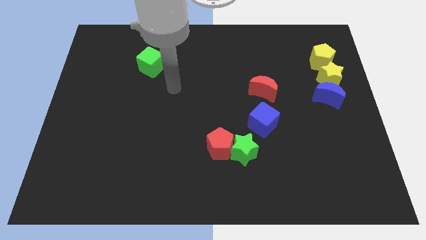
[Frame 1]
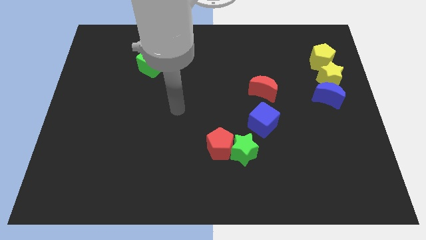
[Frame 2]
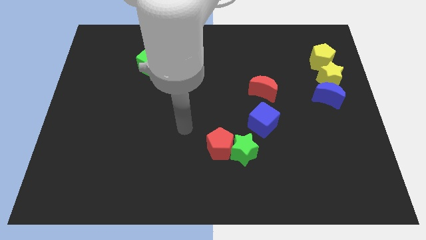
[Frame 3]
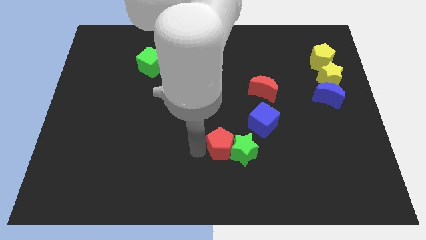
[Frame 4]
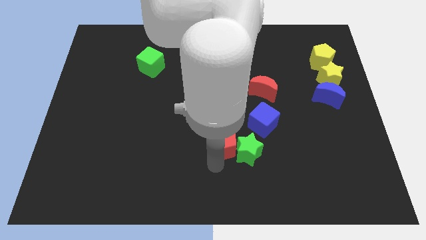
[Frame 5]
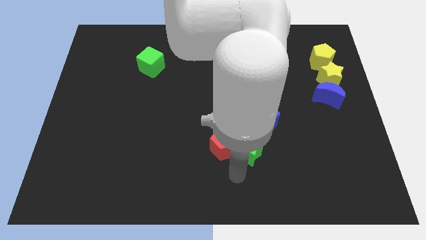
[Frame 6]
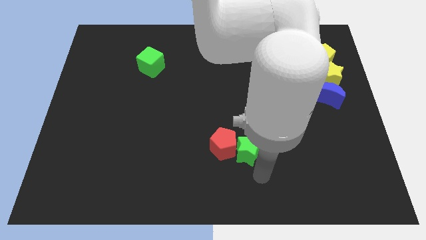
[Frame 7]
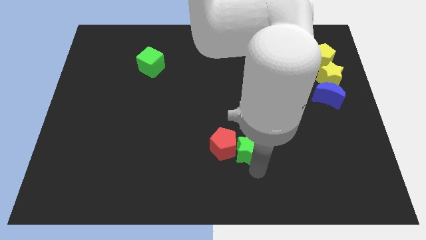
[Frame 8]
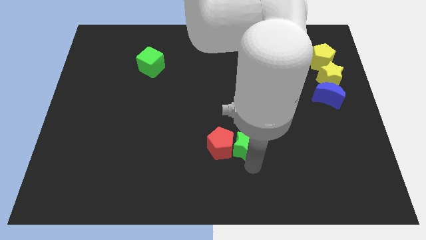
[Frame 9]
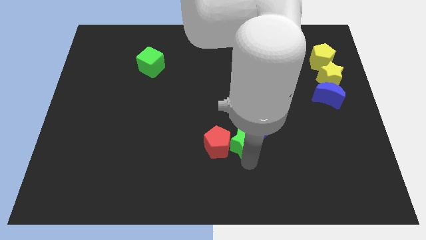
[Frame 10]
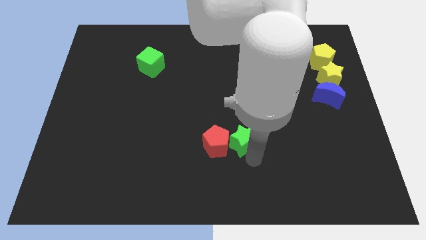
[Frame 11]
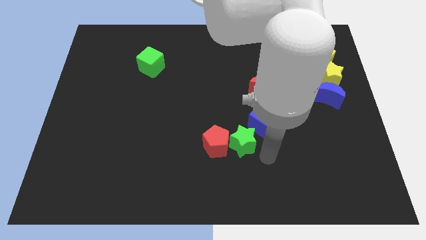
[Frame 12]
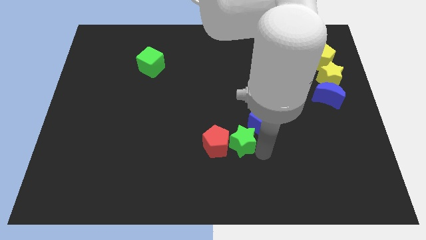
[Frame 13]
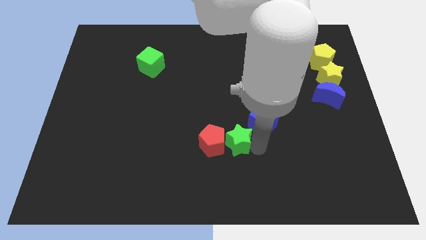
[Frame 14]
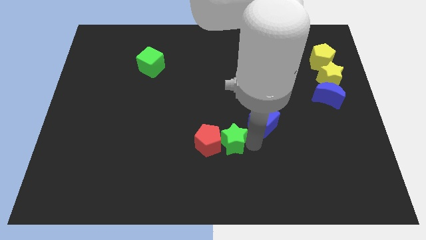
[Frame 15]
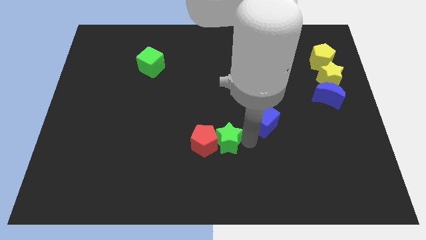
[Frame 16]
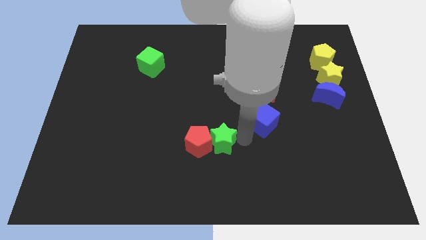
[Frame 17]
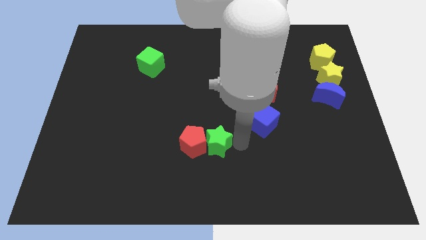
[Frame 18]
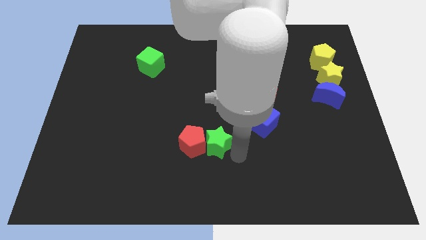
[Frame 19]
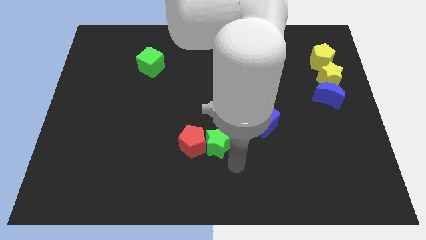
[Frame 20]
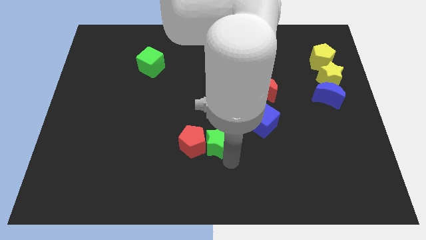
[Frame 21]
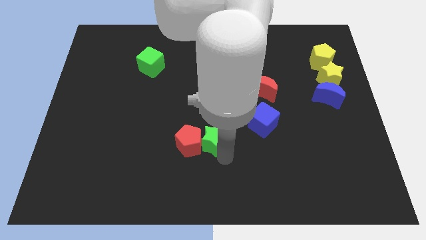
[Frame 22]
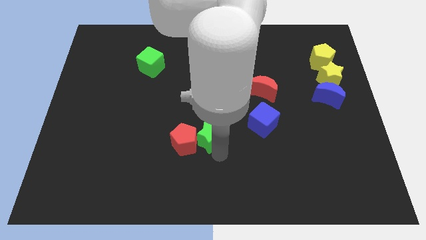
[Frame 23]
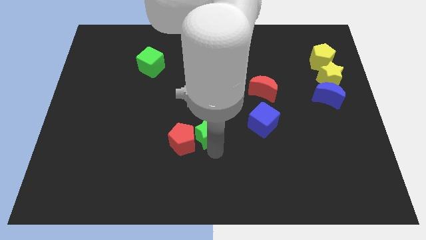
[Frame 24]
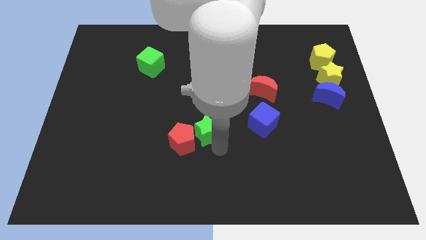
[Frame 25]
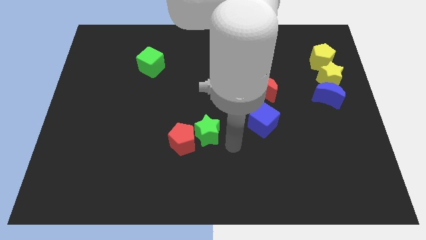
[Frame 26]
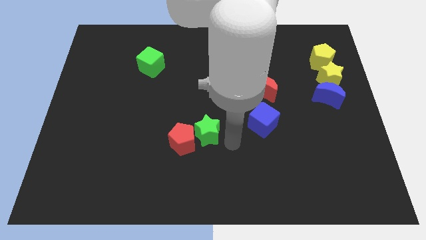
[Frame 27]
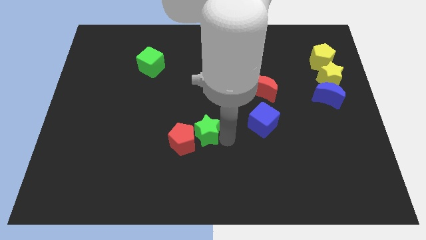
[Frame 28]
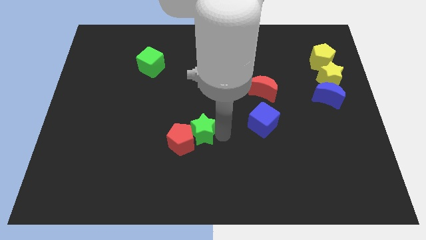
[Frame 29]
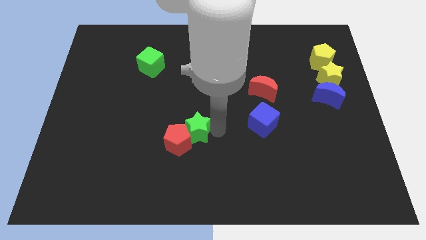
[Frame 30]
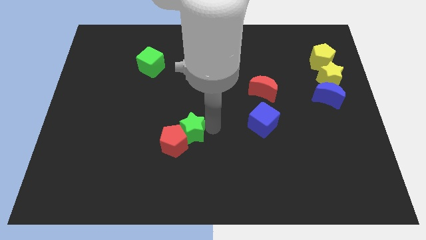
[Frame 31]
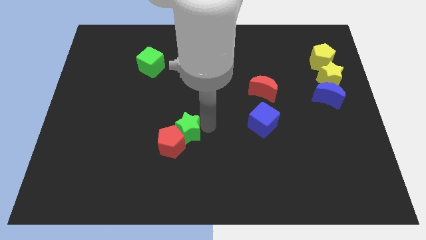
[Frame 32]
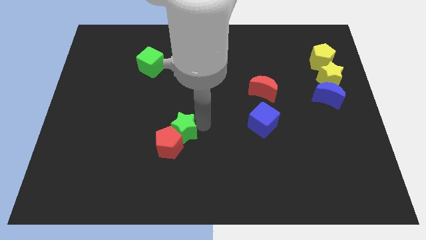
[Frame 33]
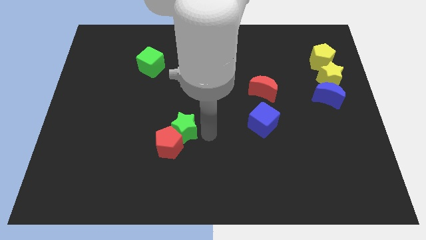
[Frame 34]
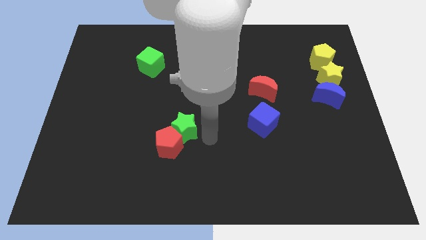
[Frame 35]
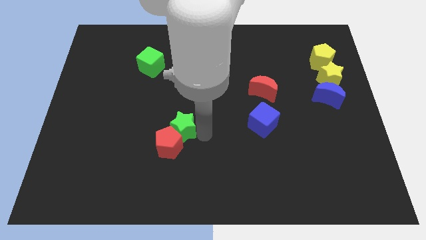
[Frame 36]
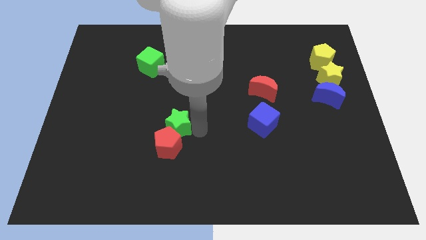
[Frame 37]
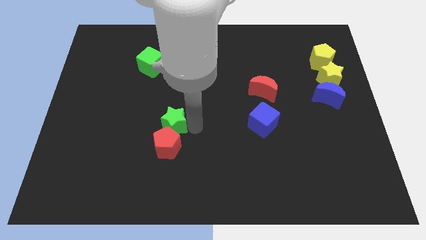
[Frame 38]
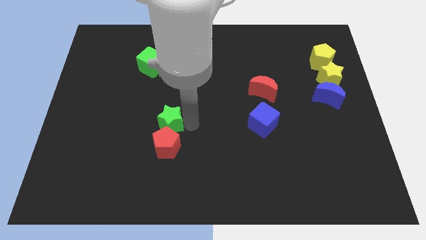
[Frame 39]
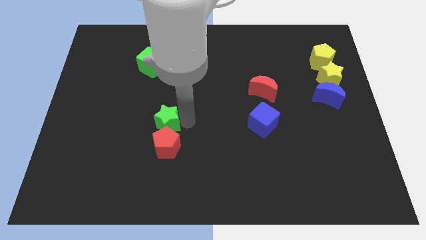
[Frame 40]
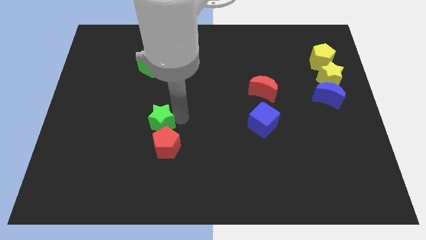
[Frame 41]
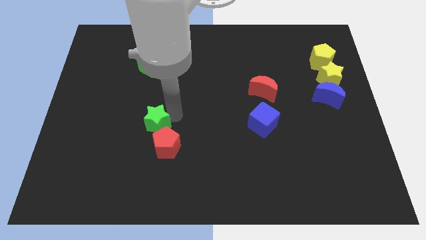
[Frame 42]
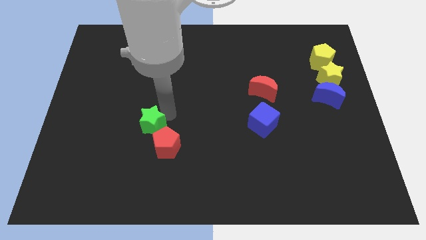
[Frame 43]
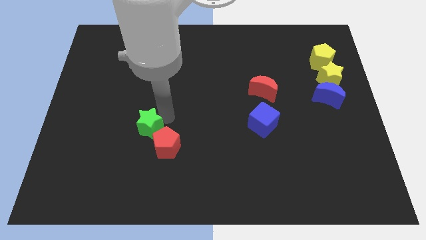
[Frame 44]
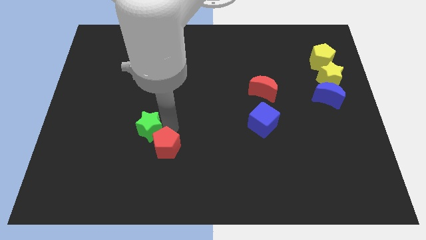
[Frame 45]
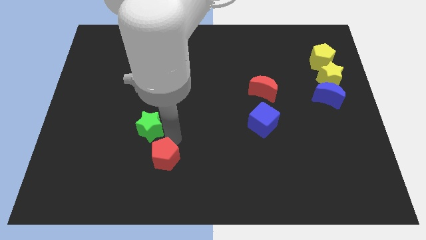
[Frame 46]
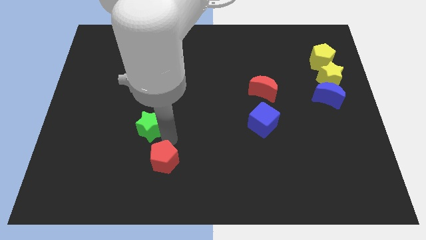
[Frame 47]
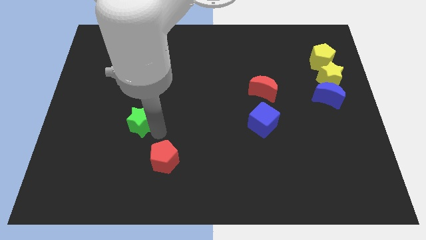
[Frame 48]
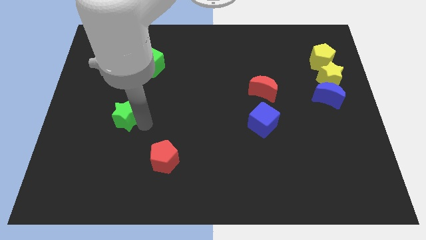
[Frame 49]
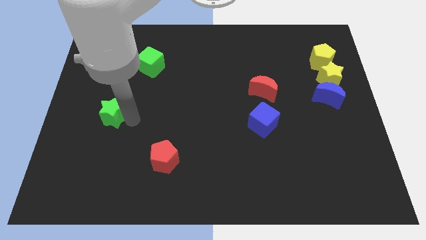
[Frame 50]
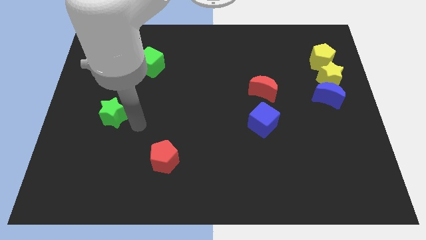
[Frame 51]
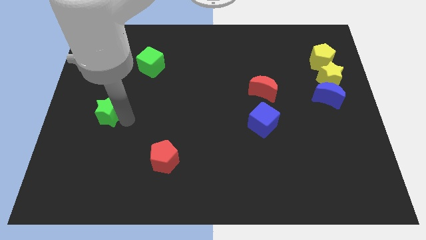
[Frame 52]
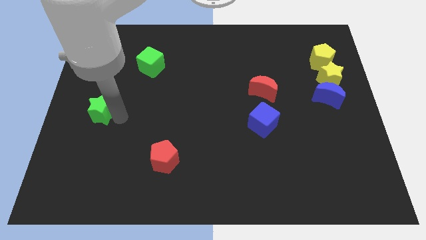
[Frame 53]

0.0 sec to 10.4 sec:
slide the green star to the left side of the board

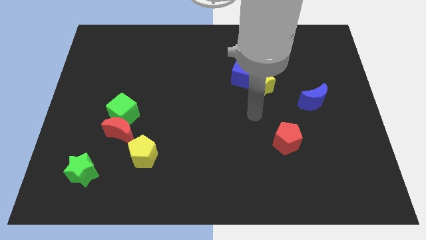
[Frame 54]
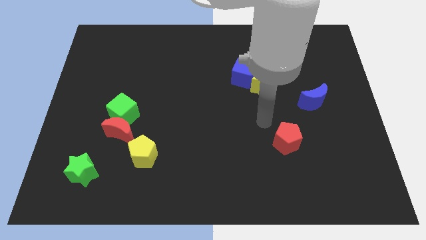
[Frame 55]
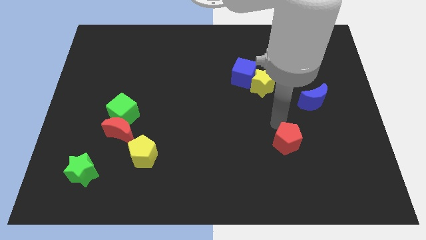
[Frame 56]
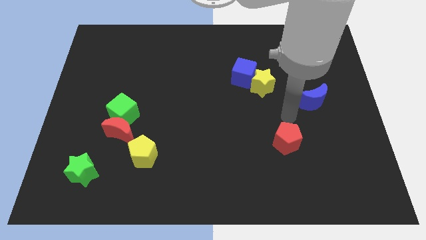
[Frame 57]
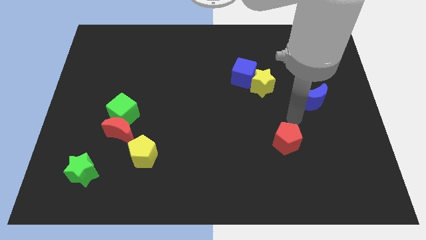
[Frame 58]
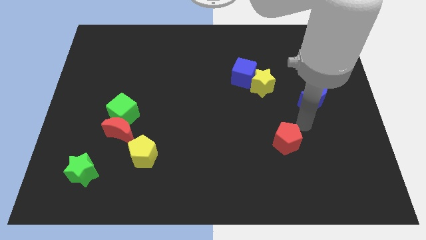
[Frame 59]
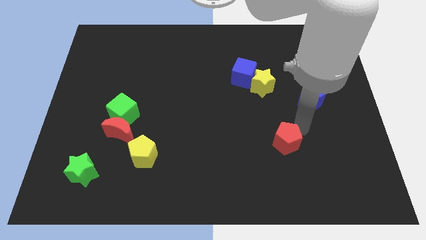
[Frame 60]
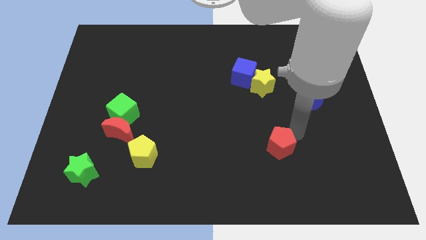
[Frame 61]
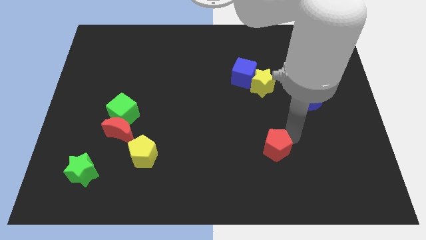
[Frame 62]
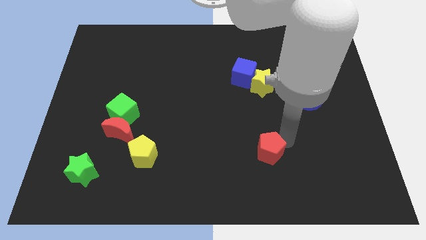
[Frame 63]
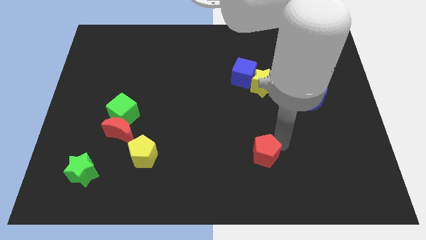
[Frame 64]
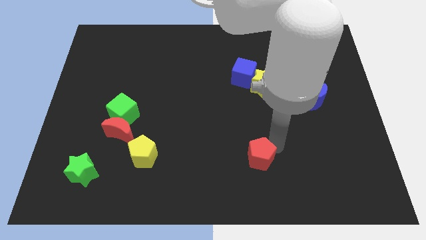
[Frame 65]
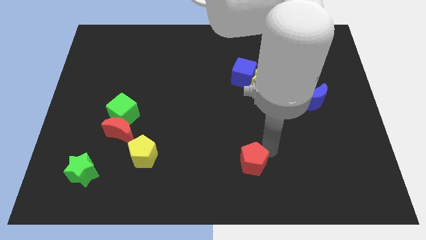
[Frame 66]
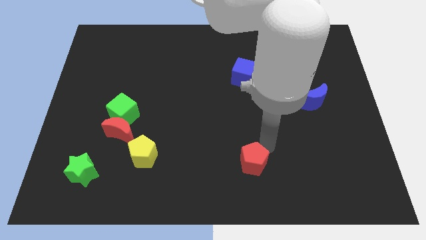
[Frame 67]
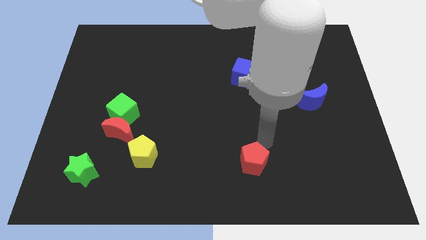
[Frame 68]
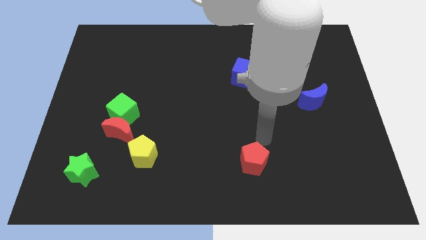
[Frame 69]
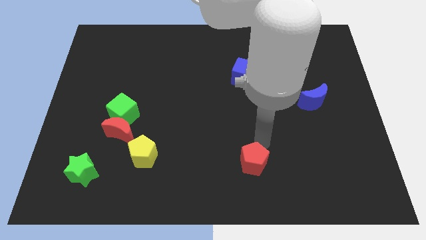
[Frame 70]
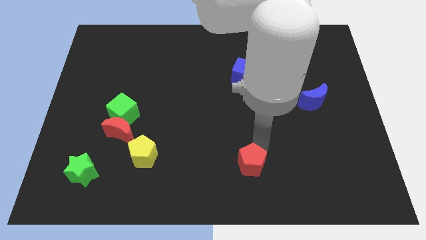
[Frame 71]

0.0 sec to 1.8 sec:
slide the red pentagon to the bottom
